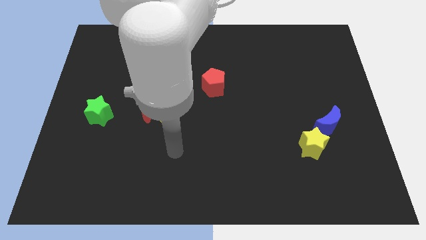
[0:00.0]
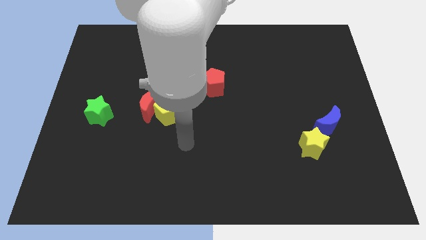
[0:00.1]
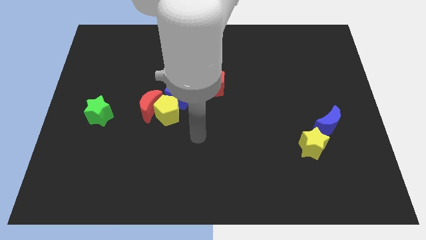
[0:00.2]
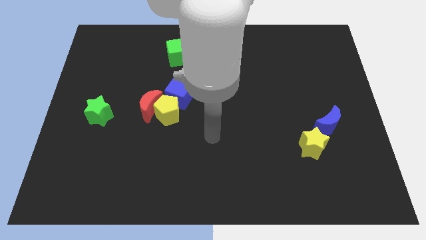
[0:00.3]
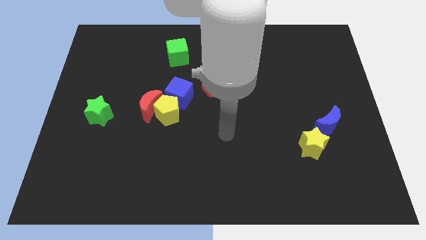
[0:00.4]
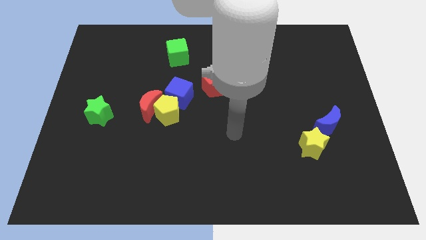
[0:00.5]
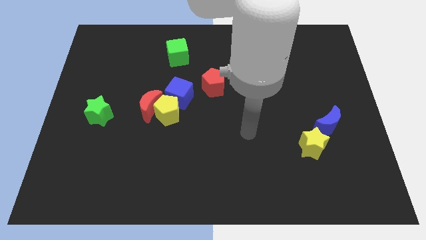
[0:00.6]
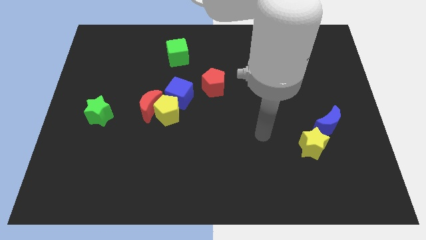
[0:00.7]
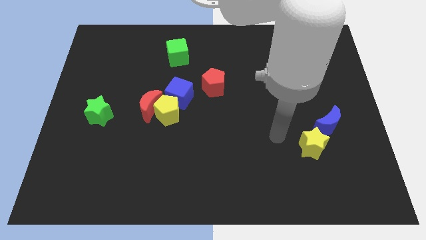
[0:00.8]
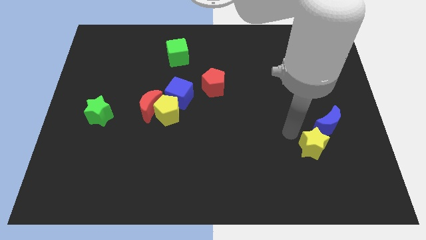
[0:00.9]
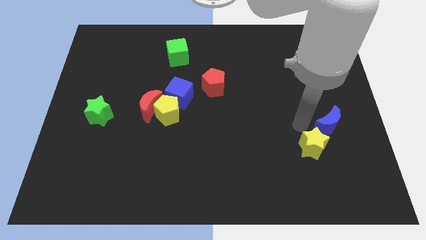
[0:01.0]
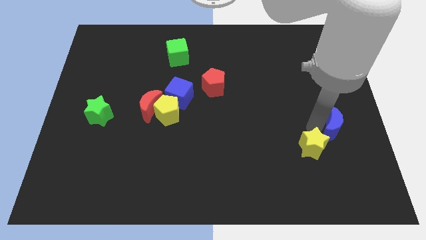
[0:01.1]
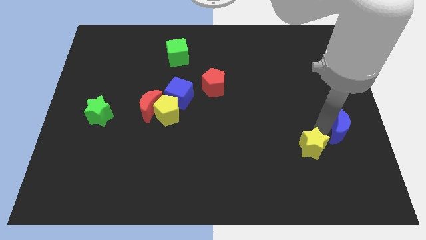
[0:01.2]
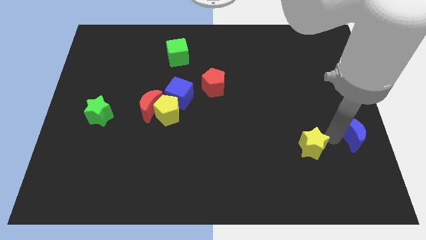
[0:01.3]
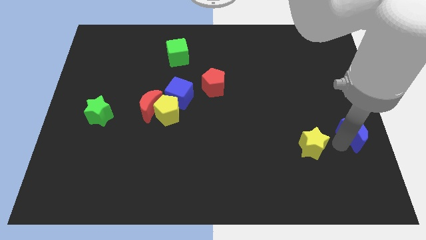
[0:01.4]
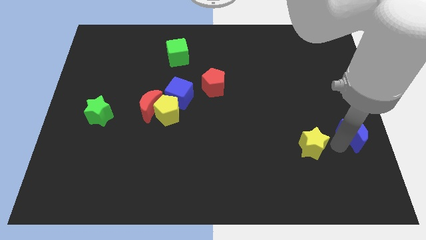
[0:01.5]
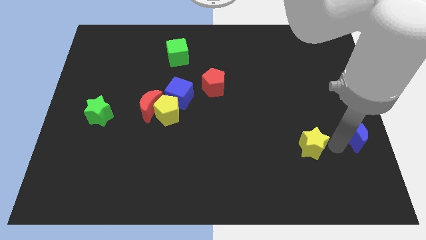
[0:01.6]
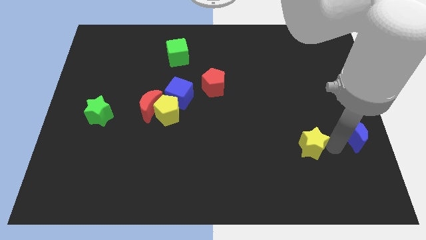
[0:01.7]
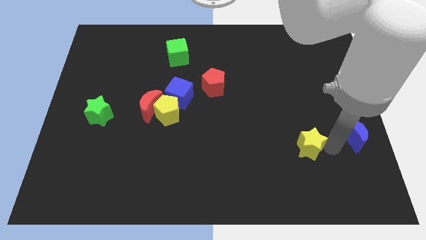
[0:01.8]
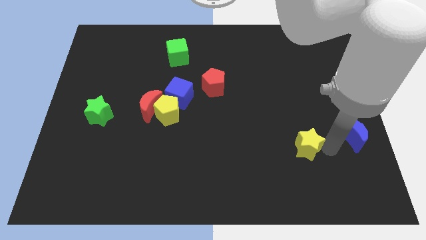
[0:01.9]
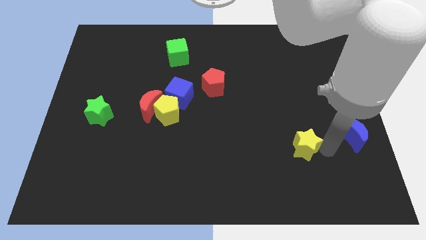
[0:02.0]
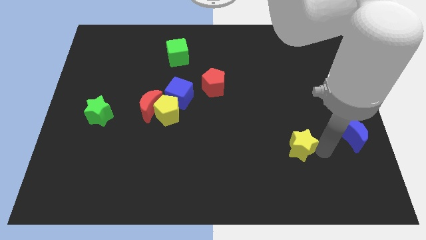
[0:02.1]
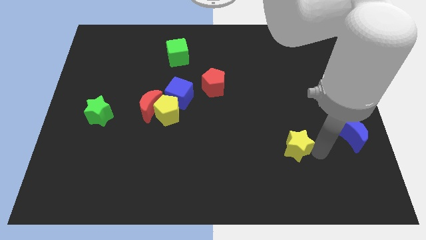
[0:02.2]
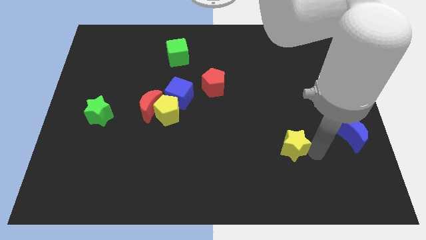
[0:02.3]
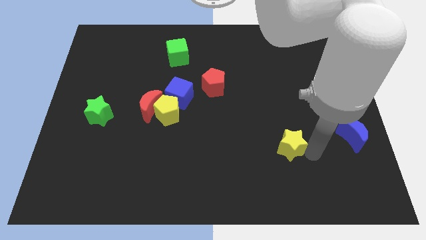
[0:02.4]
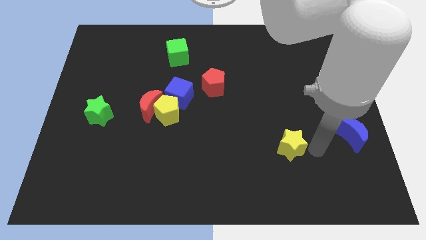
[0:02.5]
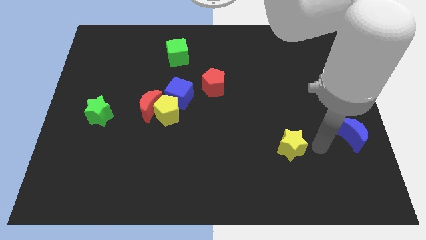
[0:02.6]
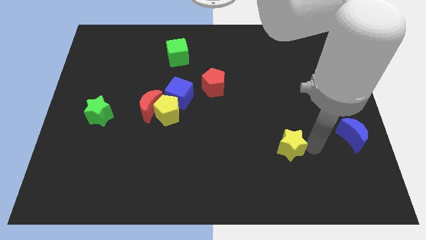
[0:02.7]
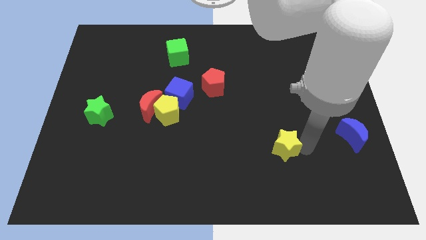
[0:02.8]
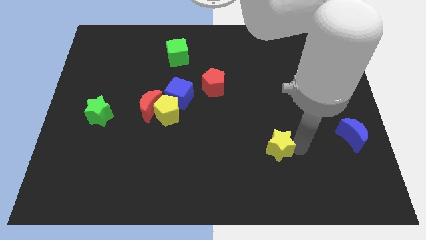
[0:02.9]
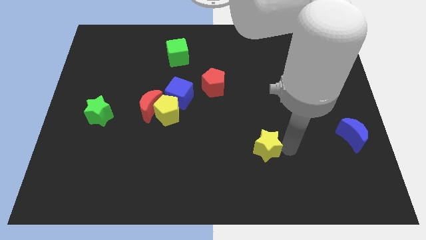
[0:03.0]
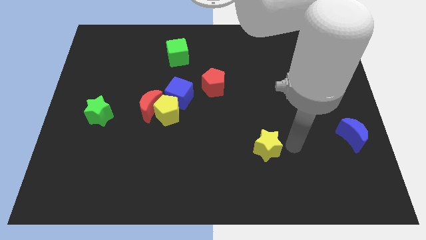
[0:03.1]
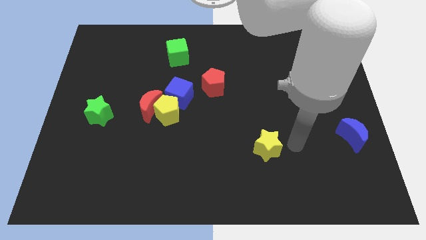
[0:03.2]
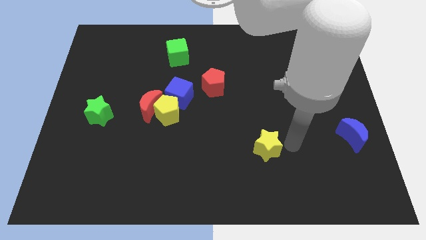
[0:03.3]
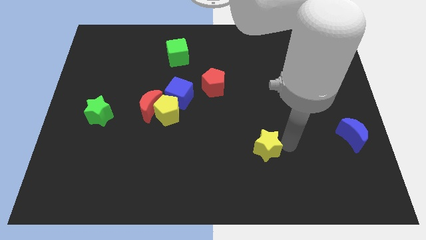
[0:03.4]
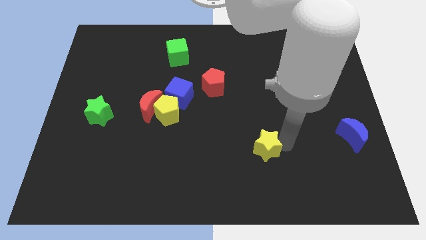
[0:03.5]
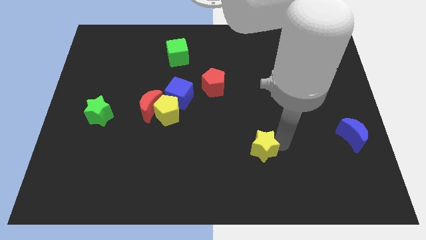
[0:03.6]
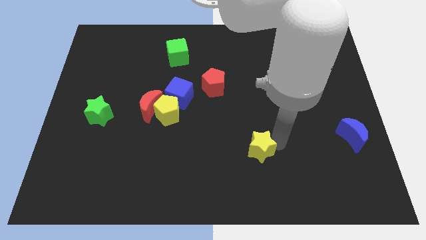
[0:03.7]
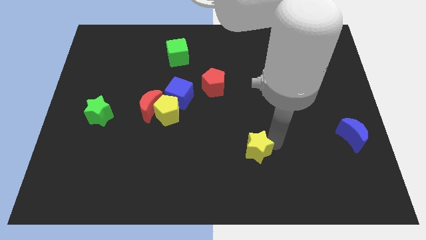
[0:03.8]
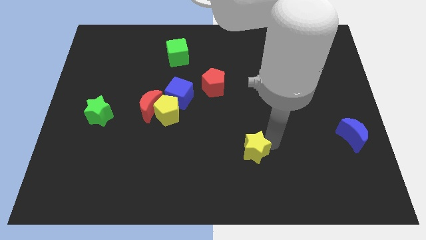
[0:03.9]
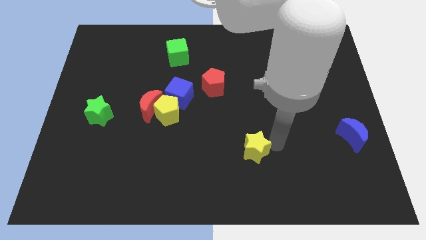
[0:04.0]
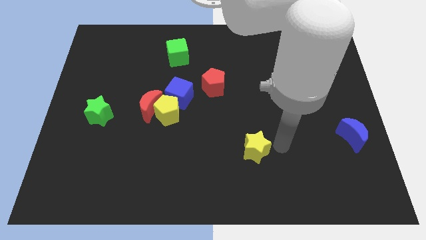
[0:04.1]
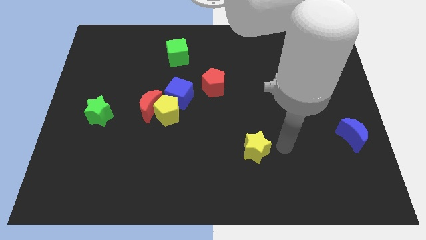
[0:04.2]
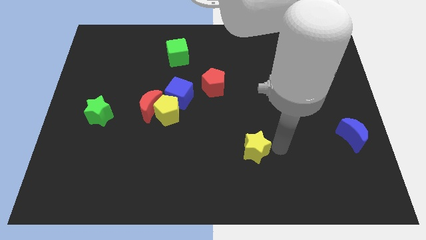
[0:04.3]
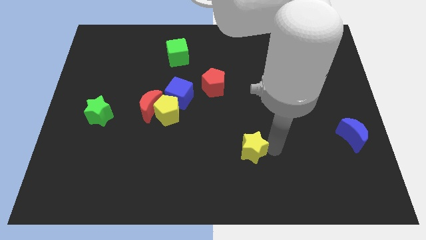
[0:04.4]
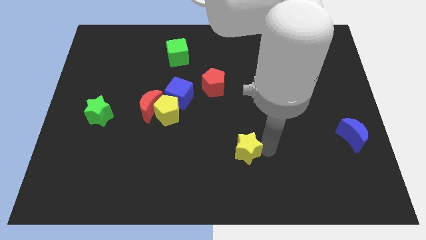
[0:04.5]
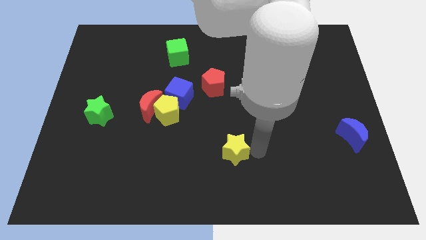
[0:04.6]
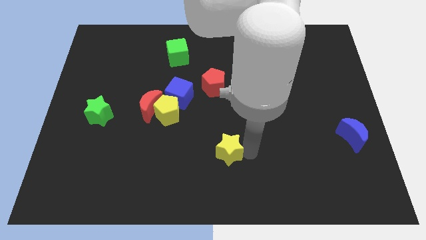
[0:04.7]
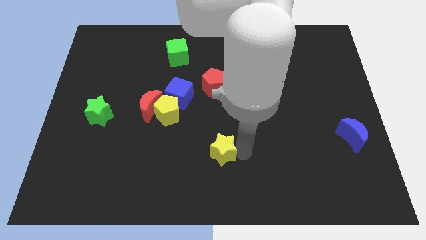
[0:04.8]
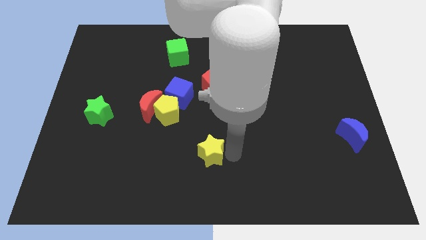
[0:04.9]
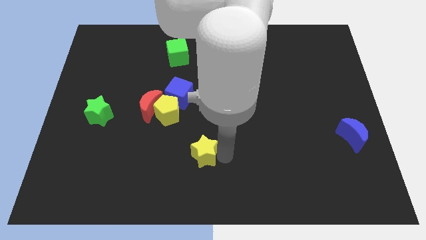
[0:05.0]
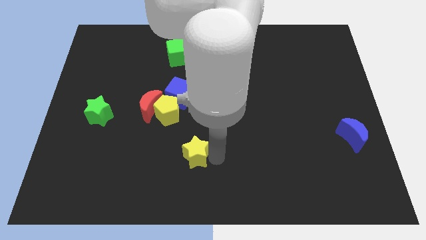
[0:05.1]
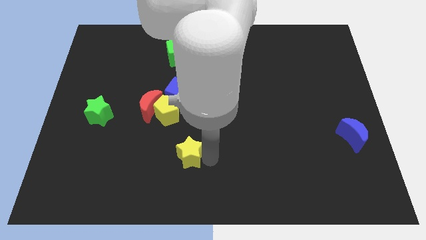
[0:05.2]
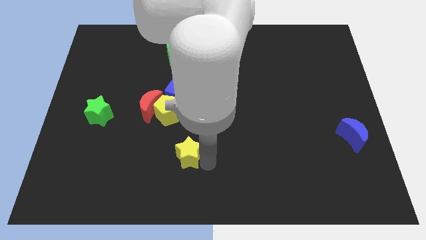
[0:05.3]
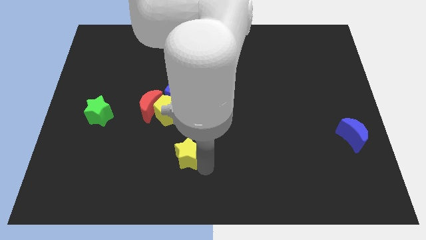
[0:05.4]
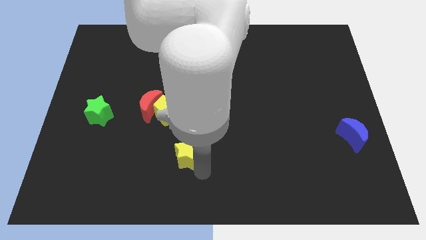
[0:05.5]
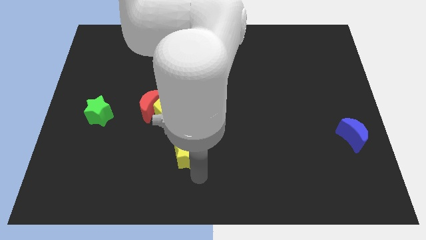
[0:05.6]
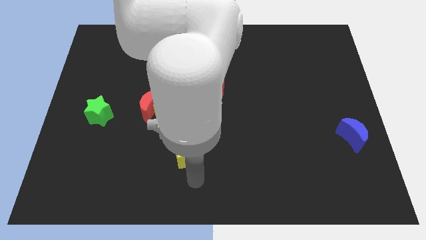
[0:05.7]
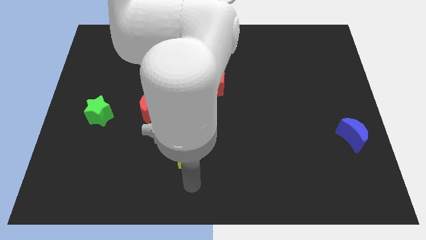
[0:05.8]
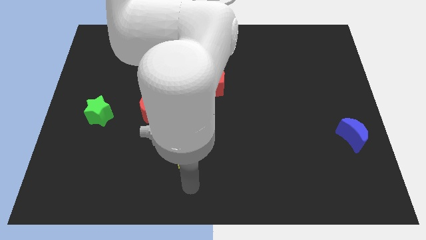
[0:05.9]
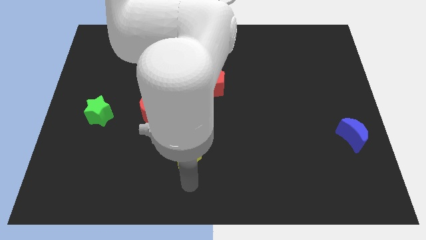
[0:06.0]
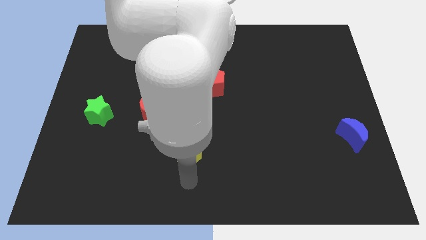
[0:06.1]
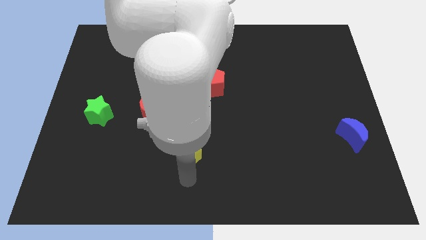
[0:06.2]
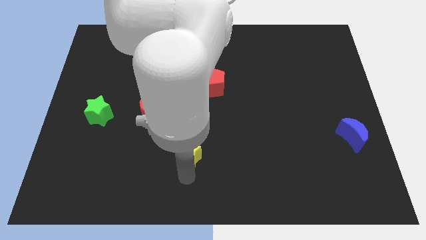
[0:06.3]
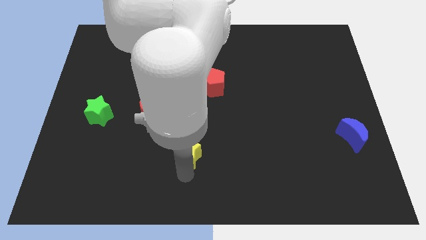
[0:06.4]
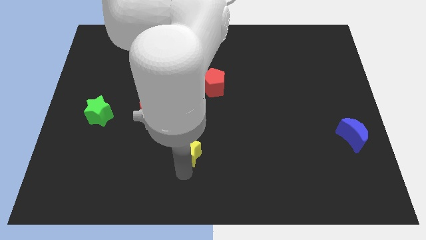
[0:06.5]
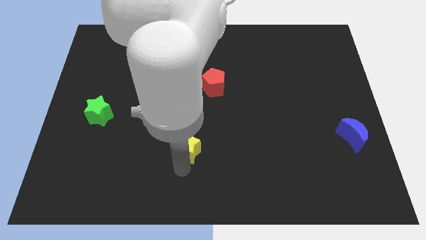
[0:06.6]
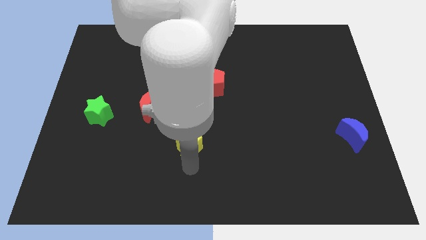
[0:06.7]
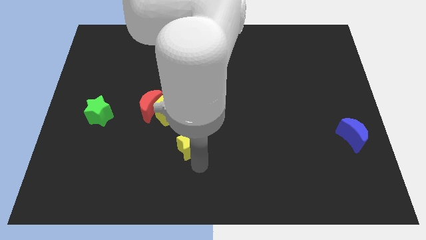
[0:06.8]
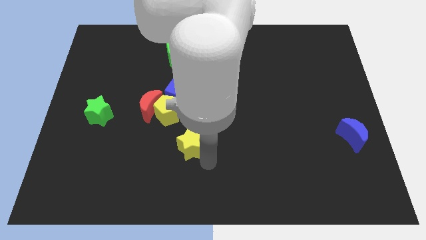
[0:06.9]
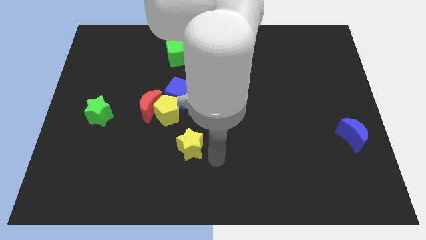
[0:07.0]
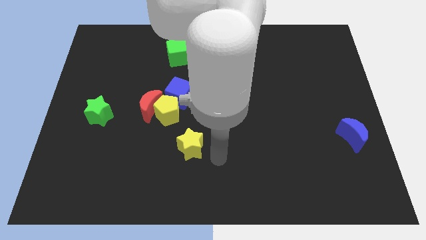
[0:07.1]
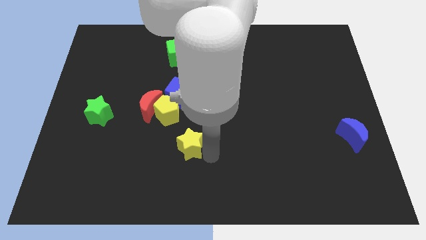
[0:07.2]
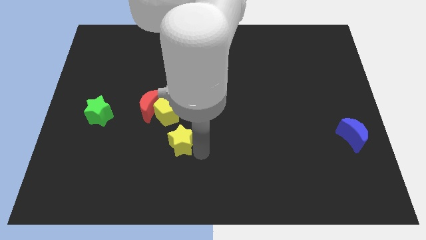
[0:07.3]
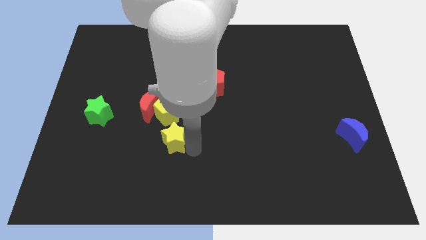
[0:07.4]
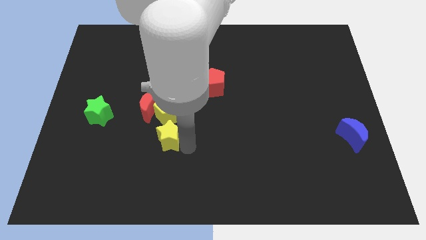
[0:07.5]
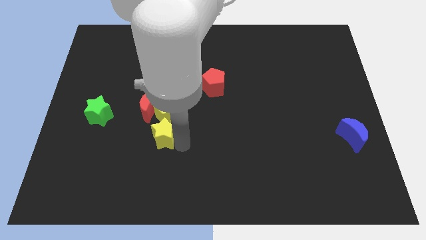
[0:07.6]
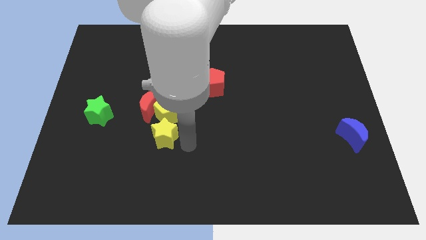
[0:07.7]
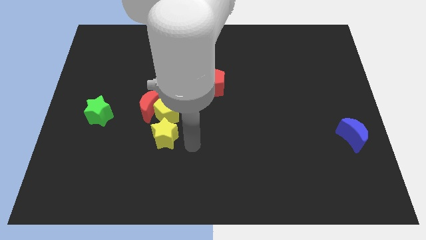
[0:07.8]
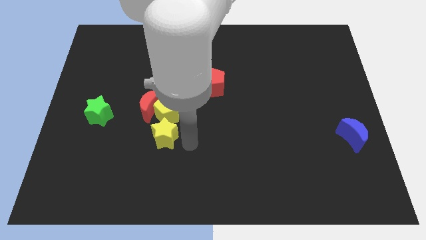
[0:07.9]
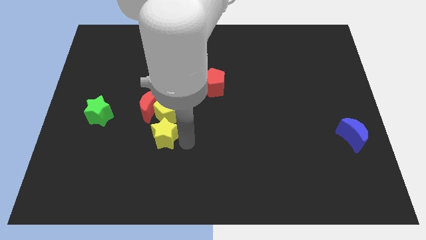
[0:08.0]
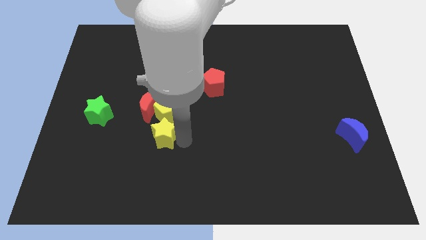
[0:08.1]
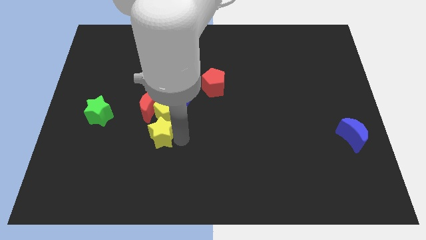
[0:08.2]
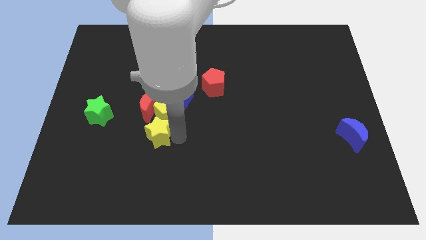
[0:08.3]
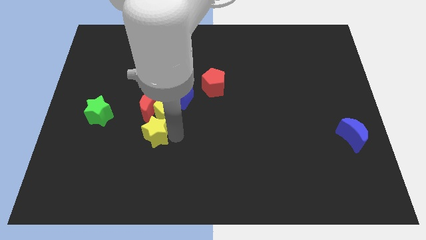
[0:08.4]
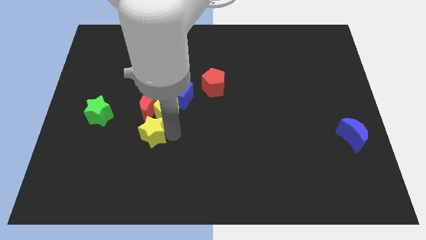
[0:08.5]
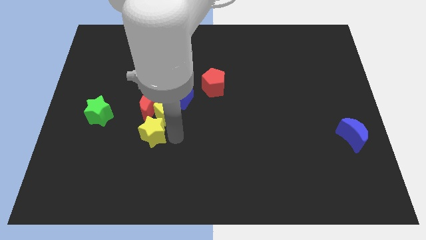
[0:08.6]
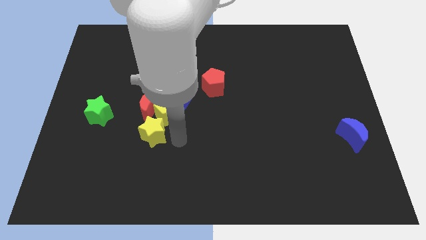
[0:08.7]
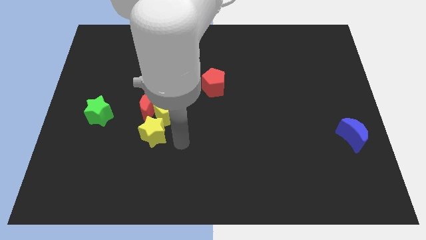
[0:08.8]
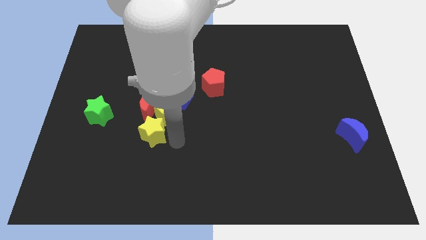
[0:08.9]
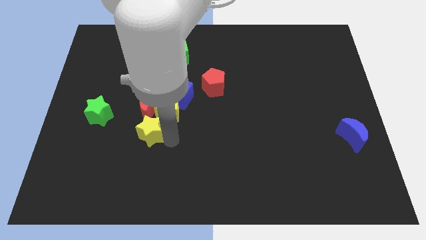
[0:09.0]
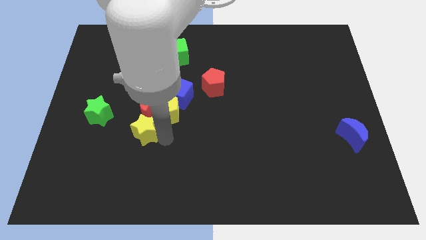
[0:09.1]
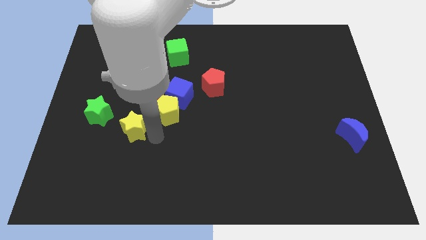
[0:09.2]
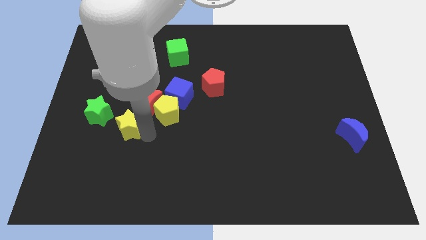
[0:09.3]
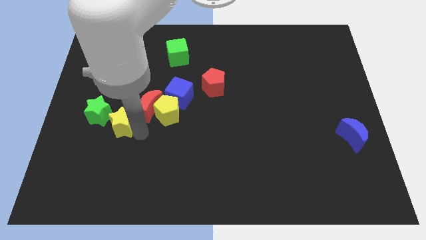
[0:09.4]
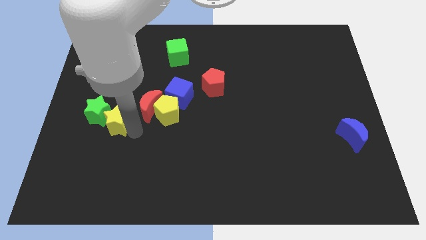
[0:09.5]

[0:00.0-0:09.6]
slide the yellow star towards the green star
